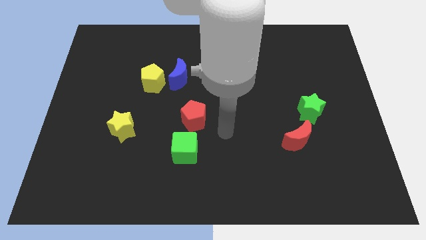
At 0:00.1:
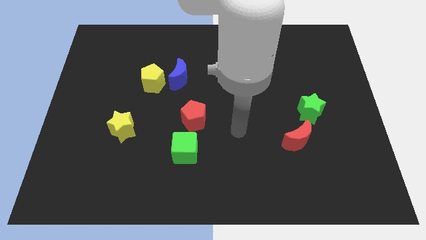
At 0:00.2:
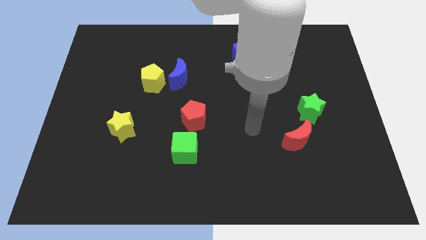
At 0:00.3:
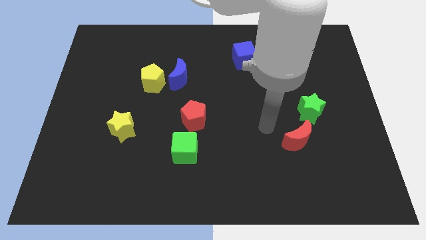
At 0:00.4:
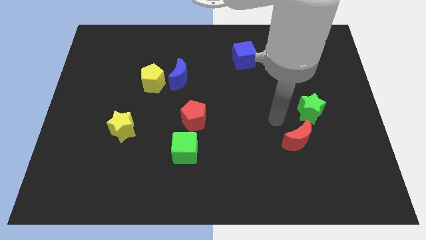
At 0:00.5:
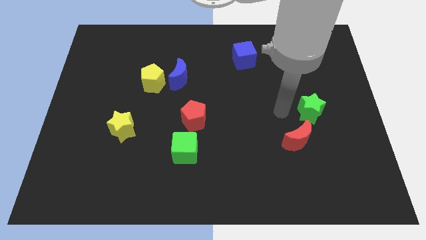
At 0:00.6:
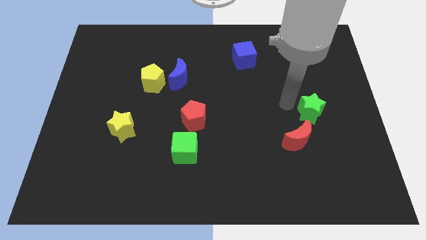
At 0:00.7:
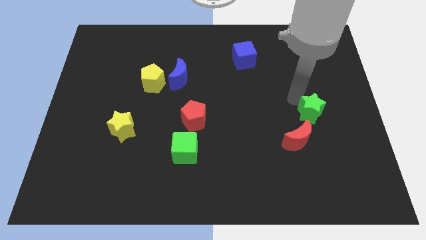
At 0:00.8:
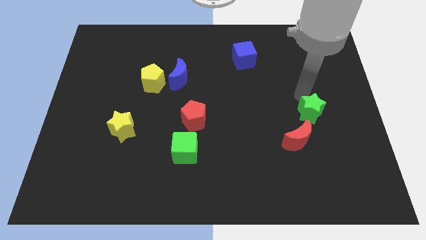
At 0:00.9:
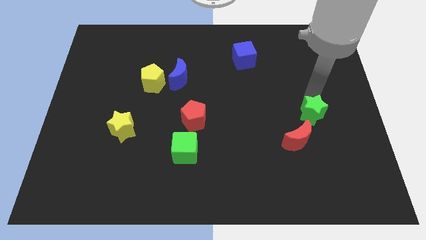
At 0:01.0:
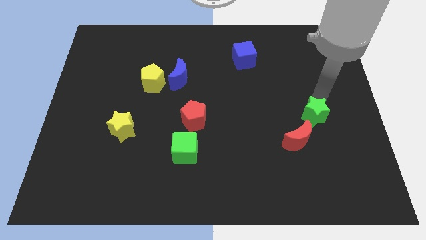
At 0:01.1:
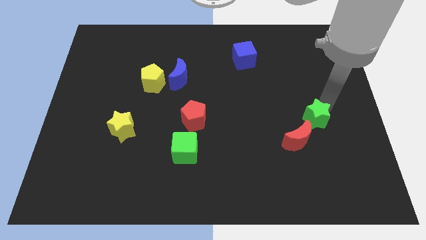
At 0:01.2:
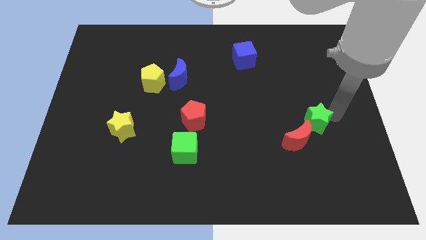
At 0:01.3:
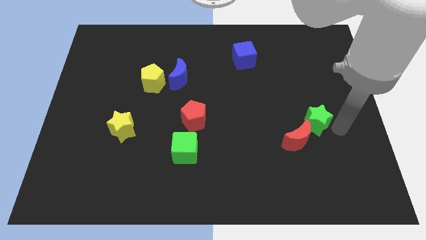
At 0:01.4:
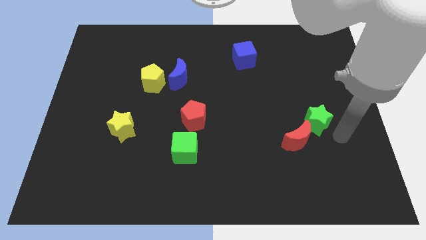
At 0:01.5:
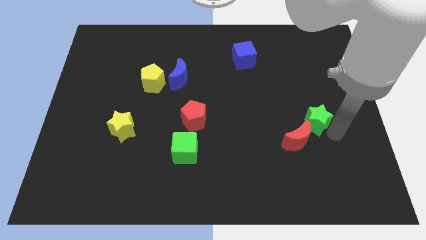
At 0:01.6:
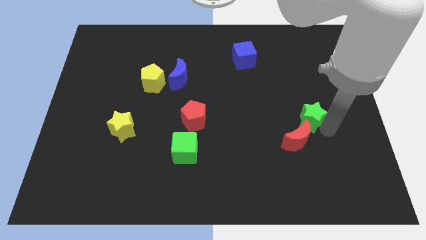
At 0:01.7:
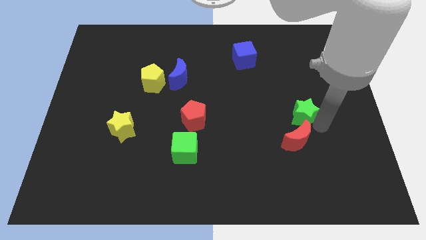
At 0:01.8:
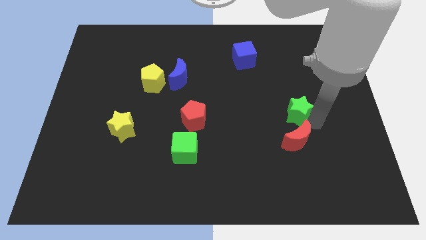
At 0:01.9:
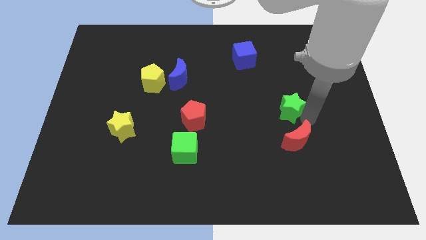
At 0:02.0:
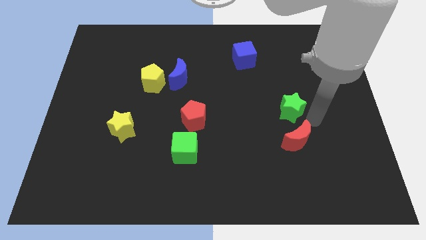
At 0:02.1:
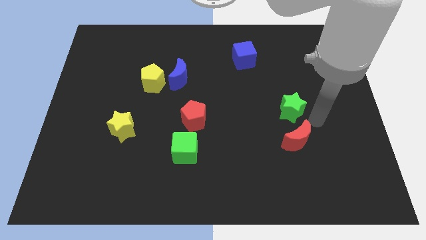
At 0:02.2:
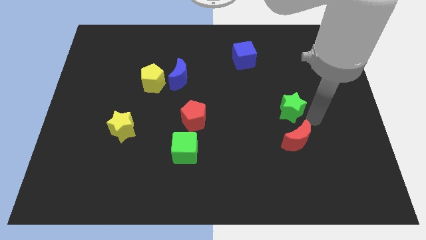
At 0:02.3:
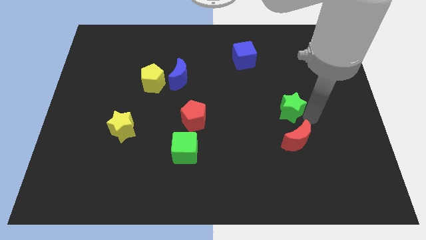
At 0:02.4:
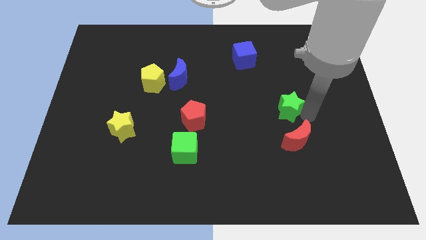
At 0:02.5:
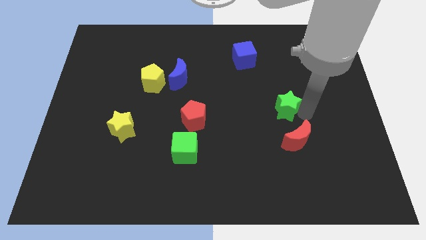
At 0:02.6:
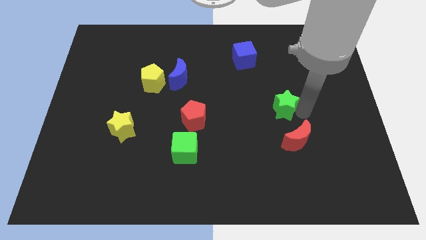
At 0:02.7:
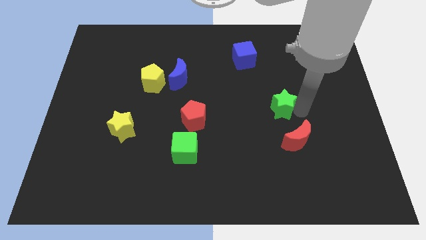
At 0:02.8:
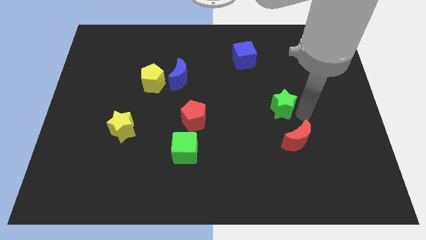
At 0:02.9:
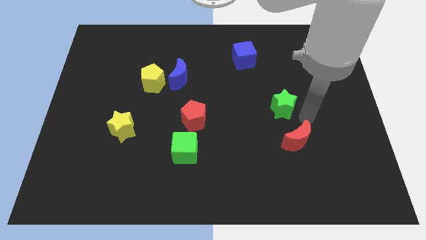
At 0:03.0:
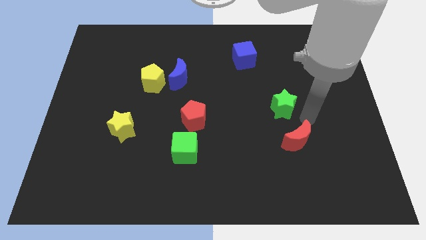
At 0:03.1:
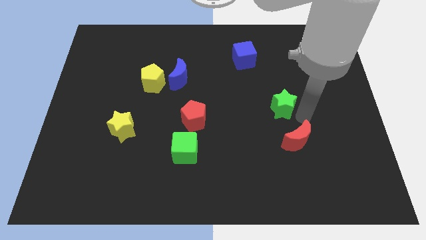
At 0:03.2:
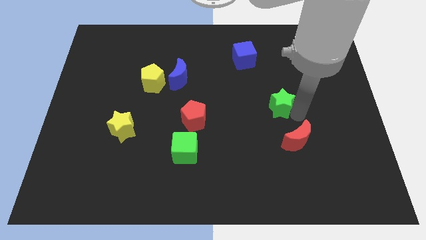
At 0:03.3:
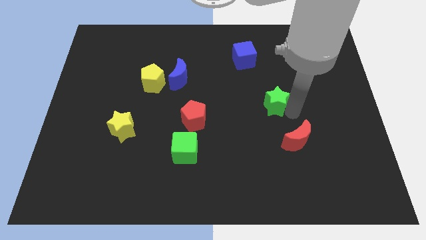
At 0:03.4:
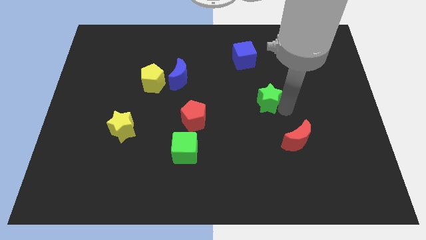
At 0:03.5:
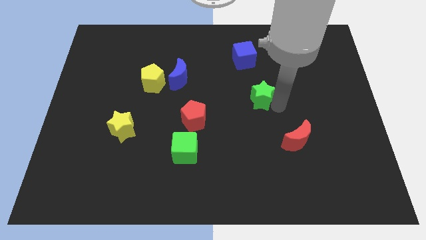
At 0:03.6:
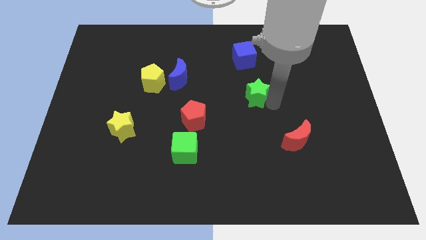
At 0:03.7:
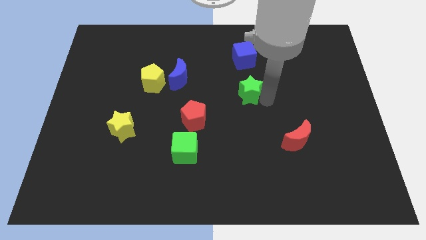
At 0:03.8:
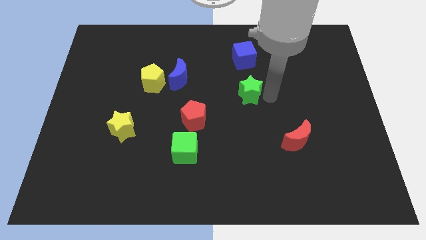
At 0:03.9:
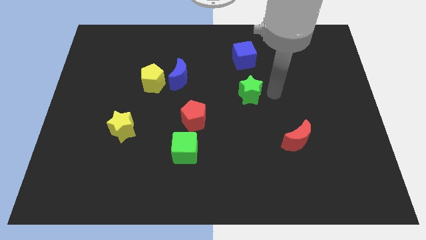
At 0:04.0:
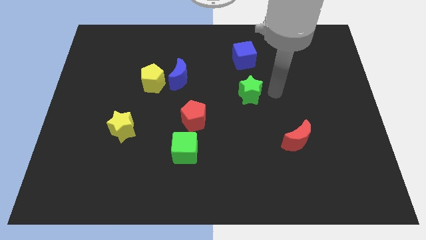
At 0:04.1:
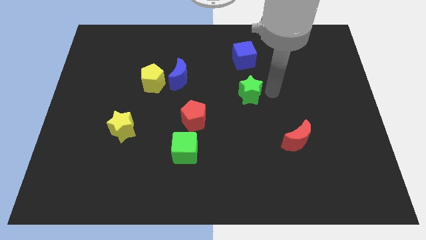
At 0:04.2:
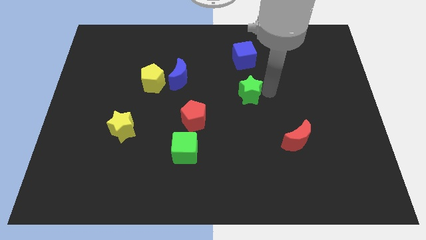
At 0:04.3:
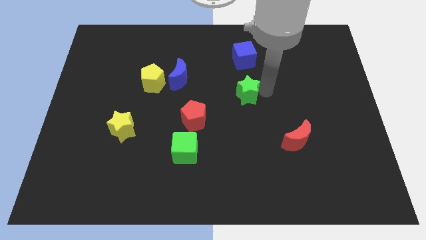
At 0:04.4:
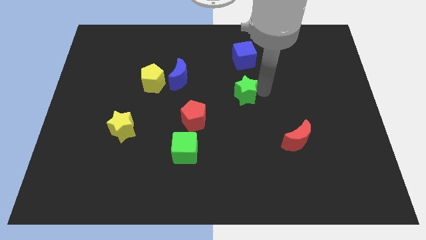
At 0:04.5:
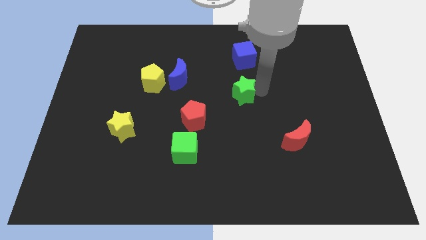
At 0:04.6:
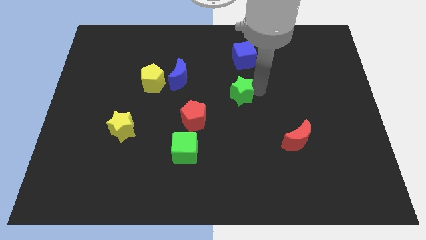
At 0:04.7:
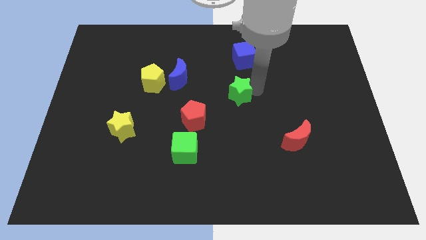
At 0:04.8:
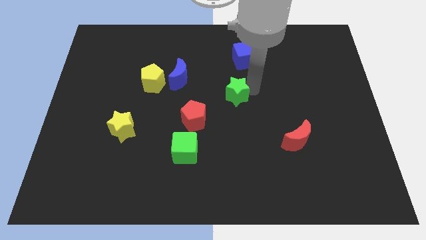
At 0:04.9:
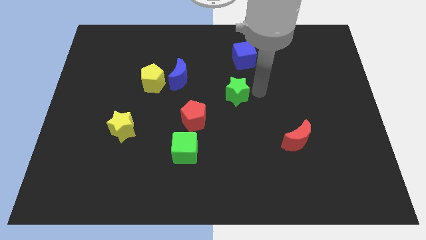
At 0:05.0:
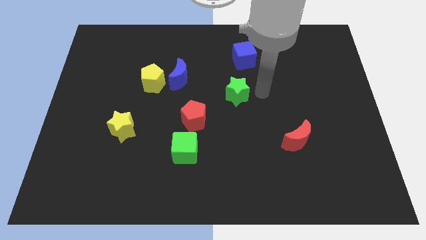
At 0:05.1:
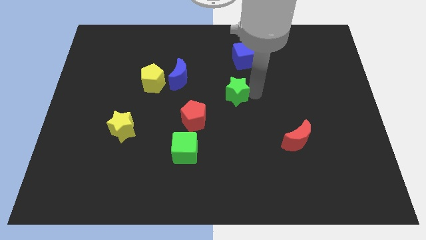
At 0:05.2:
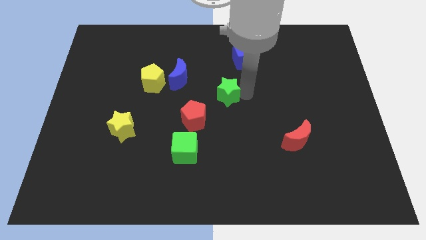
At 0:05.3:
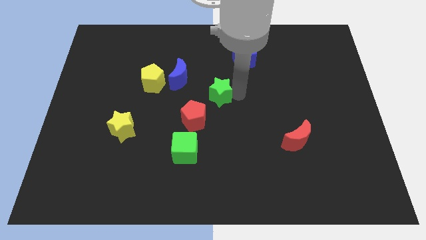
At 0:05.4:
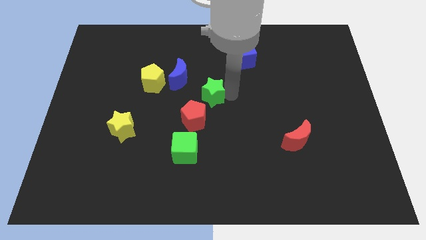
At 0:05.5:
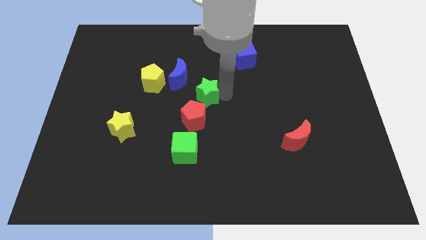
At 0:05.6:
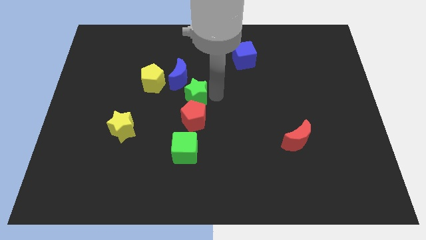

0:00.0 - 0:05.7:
put the green star diagonally down and to the right of the yellow pentagon

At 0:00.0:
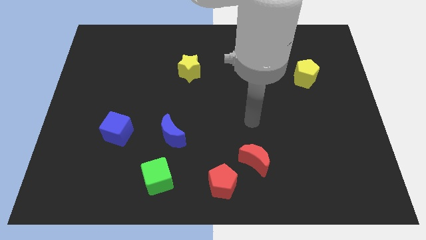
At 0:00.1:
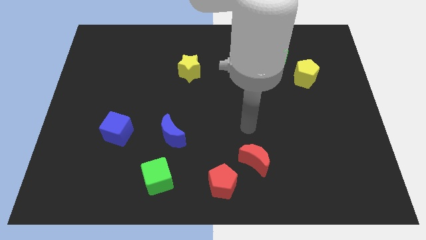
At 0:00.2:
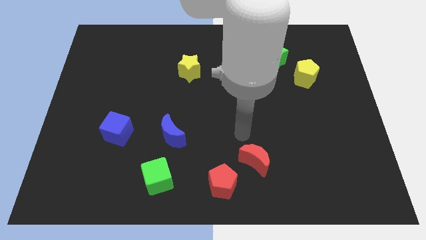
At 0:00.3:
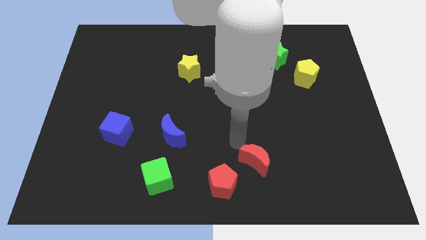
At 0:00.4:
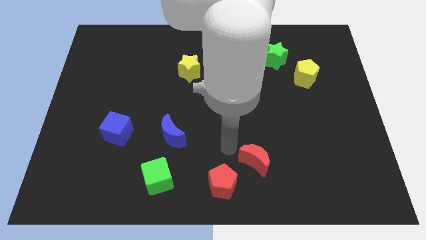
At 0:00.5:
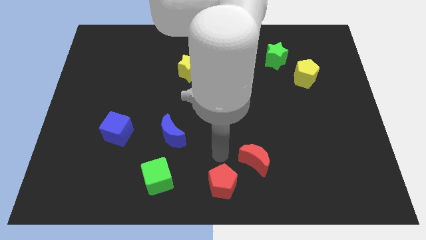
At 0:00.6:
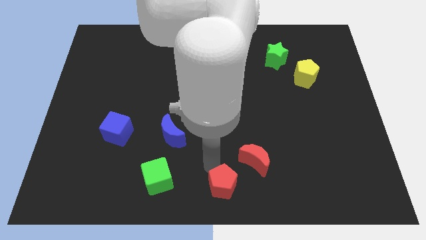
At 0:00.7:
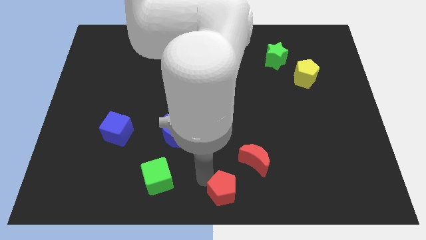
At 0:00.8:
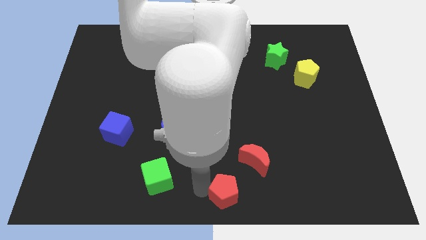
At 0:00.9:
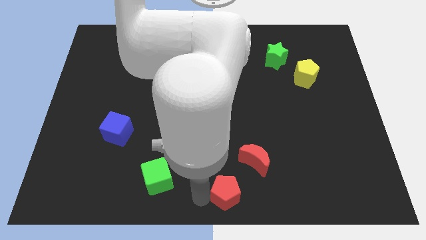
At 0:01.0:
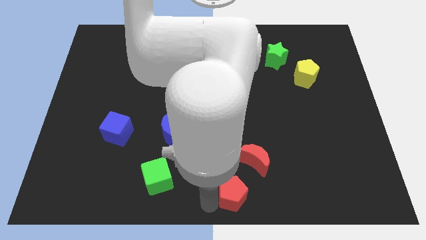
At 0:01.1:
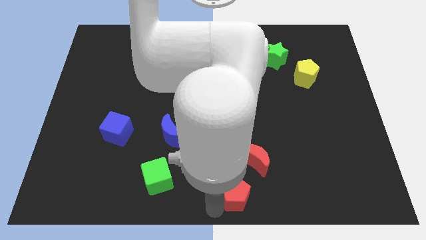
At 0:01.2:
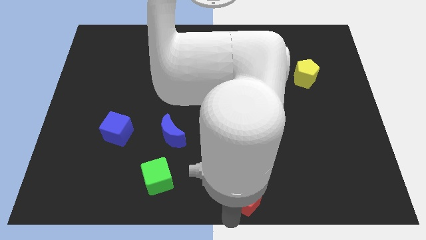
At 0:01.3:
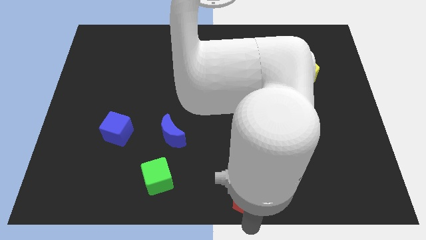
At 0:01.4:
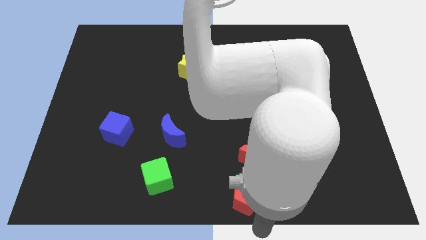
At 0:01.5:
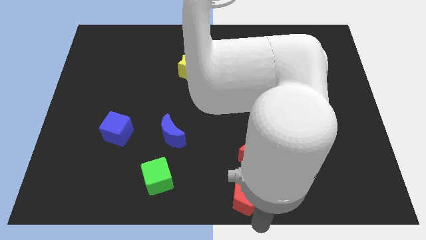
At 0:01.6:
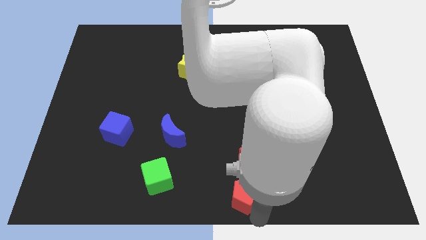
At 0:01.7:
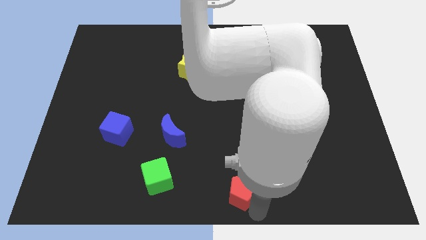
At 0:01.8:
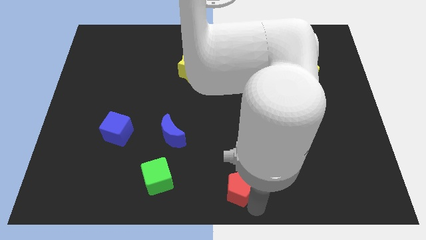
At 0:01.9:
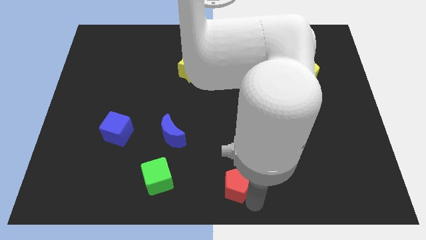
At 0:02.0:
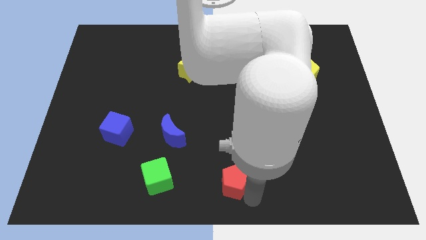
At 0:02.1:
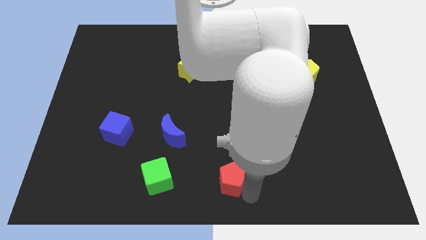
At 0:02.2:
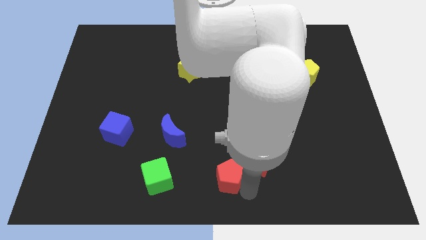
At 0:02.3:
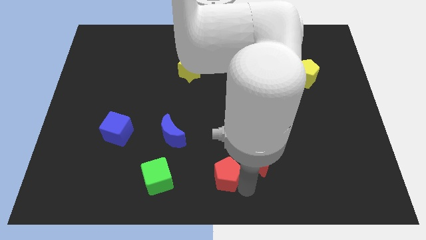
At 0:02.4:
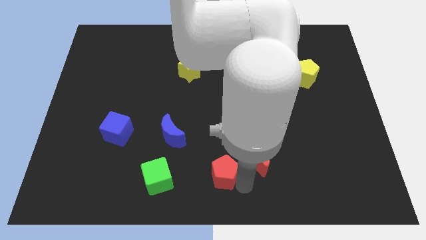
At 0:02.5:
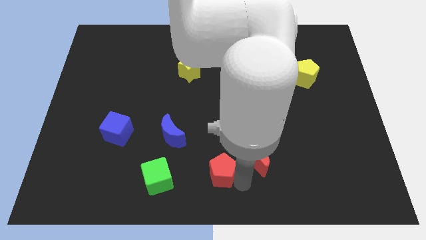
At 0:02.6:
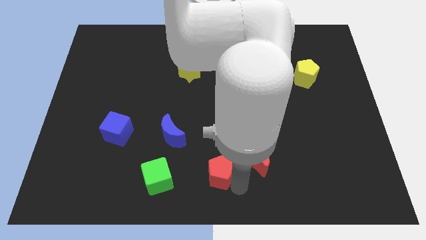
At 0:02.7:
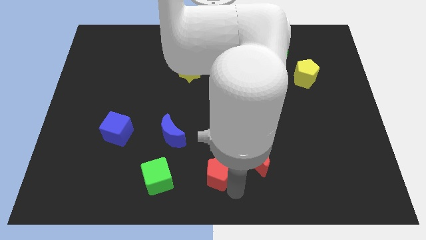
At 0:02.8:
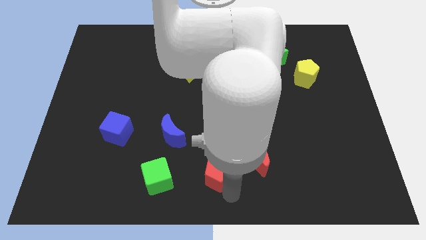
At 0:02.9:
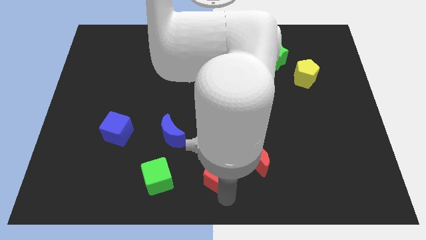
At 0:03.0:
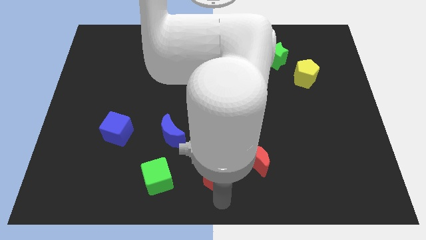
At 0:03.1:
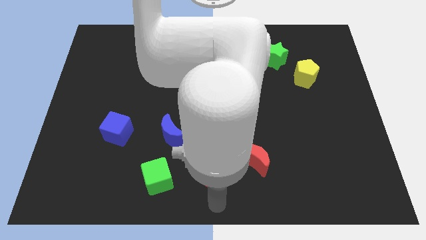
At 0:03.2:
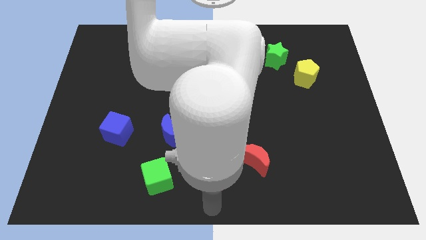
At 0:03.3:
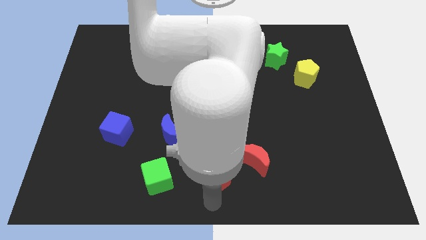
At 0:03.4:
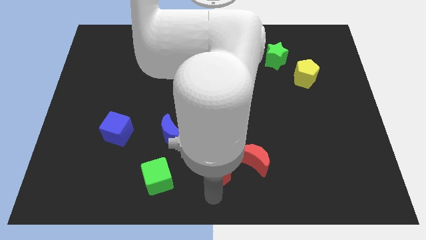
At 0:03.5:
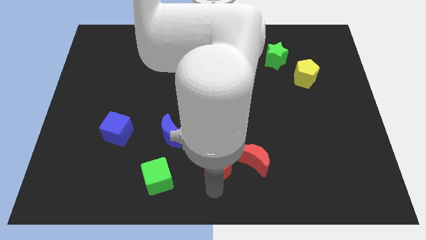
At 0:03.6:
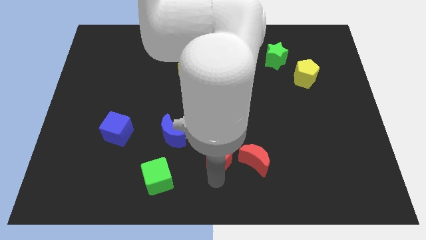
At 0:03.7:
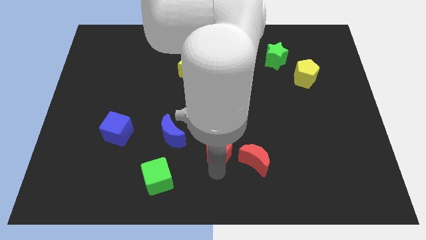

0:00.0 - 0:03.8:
put the red pentagon to the right of the blue moon
